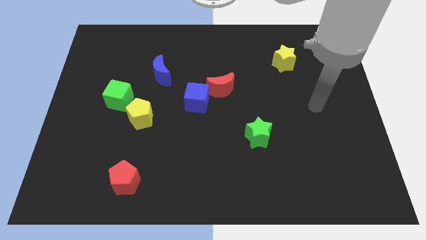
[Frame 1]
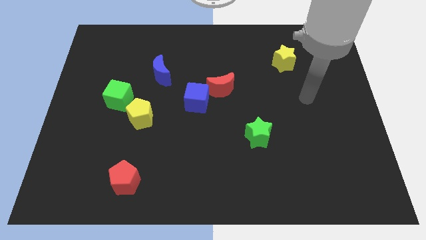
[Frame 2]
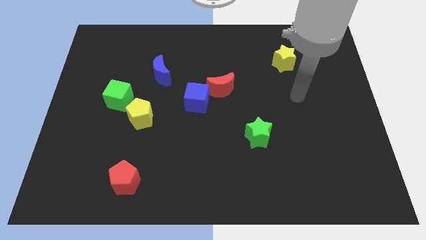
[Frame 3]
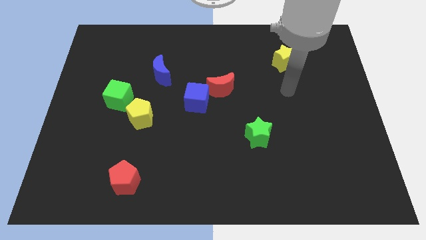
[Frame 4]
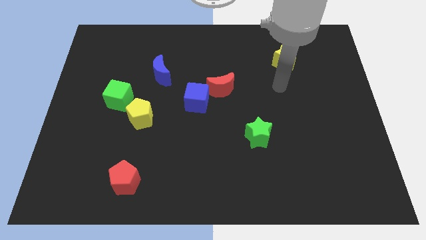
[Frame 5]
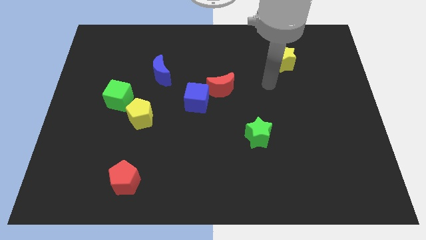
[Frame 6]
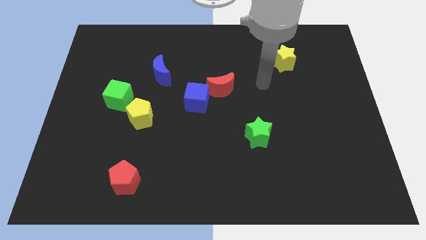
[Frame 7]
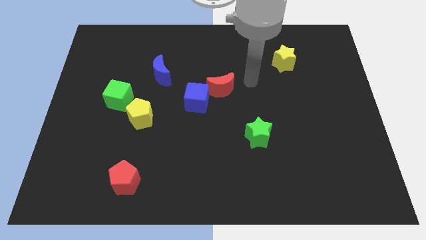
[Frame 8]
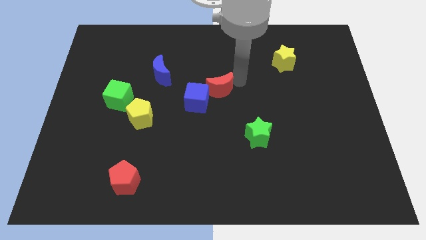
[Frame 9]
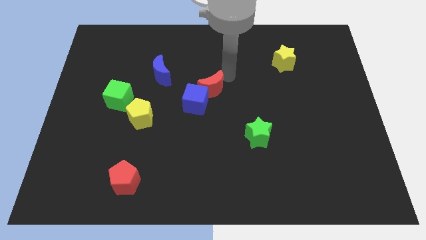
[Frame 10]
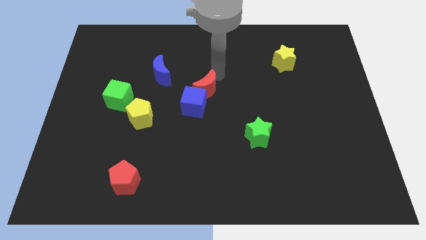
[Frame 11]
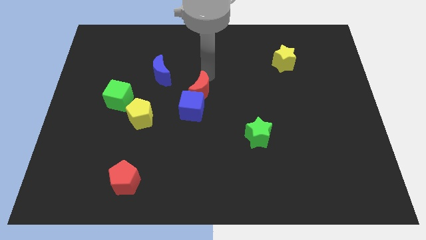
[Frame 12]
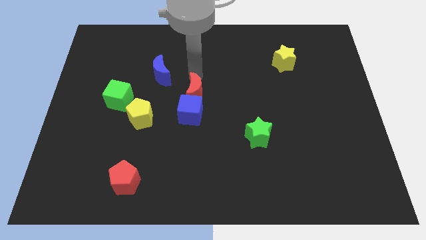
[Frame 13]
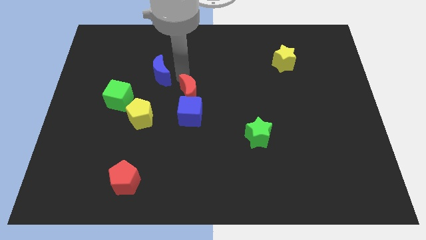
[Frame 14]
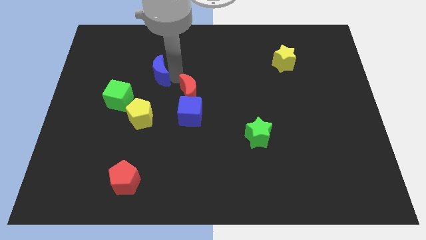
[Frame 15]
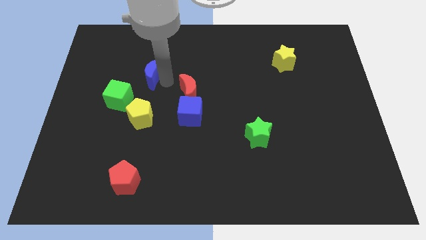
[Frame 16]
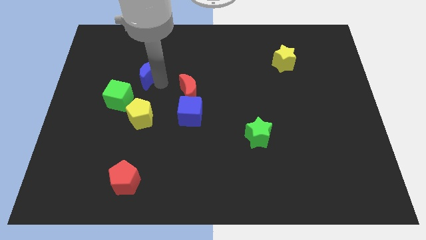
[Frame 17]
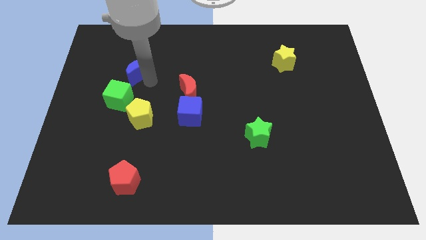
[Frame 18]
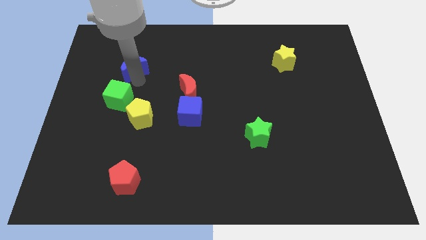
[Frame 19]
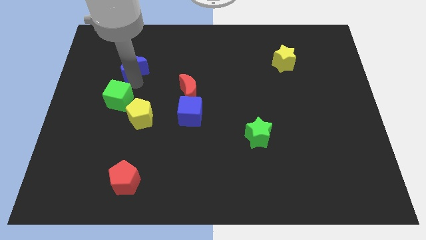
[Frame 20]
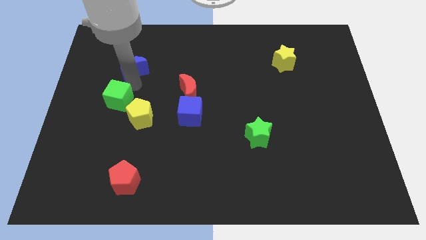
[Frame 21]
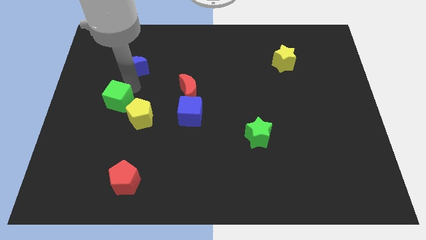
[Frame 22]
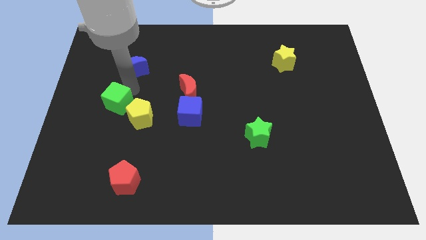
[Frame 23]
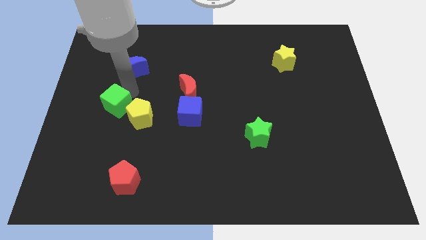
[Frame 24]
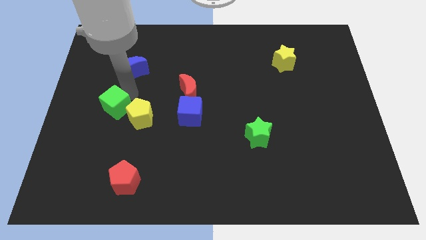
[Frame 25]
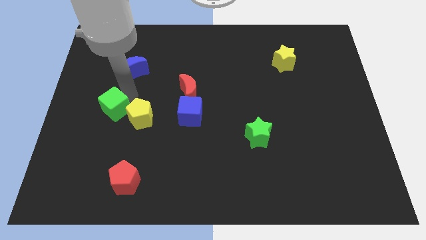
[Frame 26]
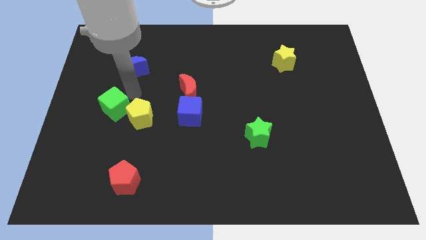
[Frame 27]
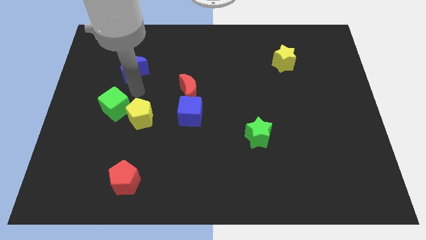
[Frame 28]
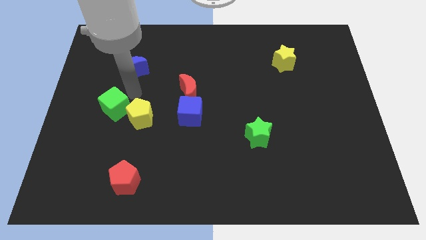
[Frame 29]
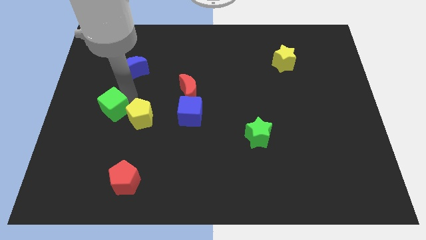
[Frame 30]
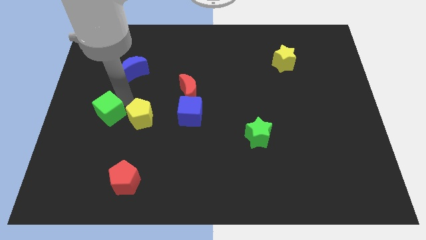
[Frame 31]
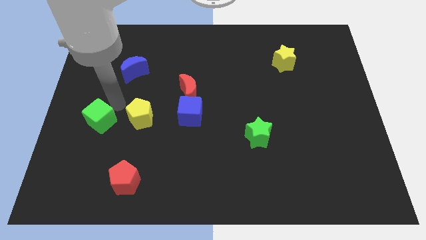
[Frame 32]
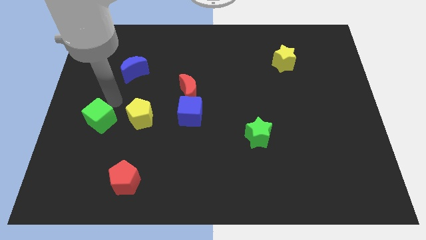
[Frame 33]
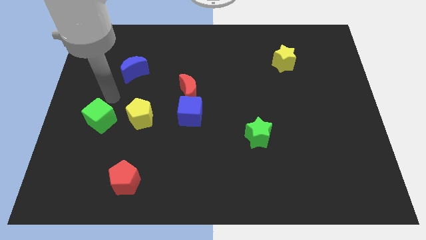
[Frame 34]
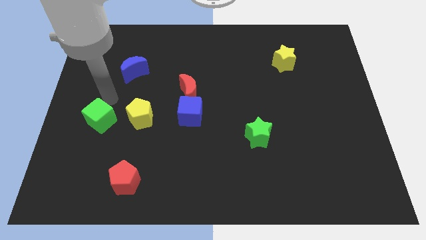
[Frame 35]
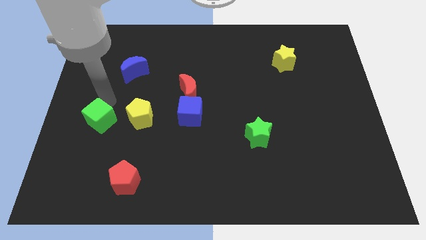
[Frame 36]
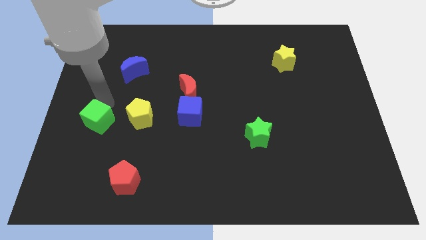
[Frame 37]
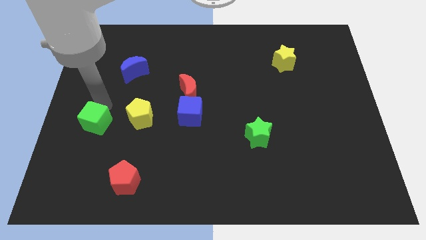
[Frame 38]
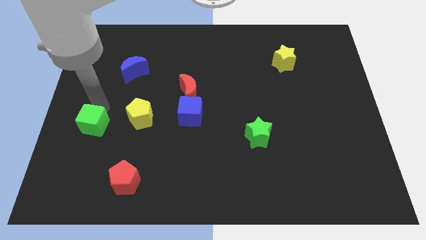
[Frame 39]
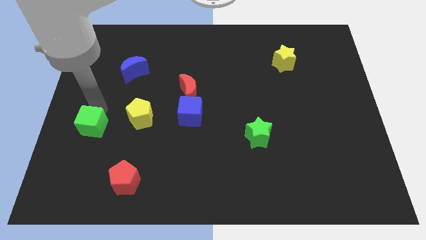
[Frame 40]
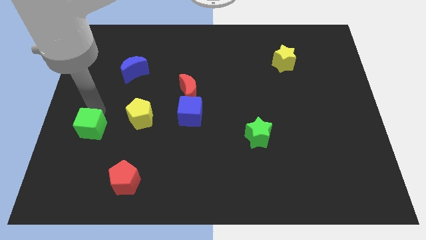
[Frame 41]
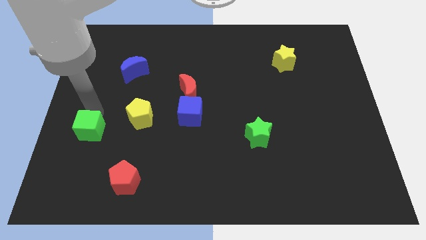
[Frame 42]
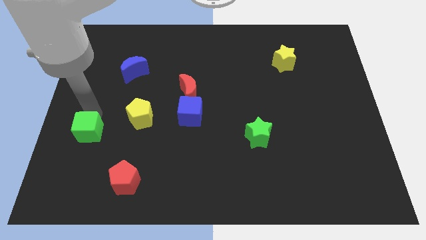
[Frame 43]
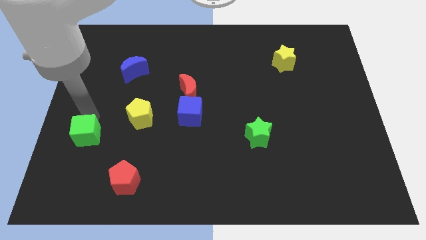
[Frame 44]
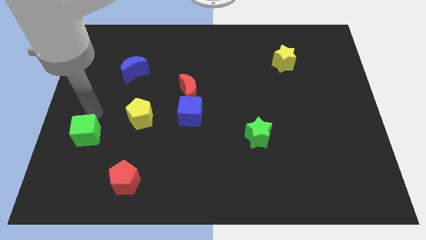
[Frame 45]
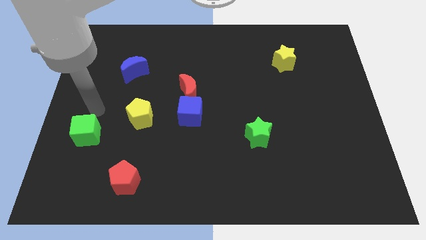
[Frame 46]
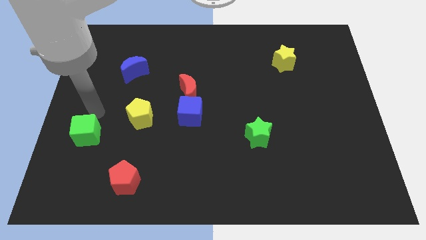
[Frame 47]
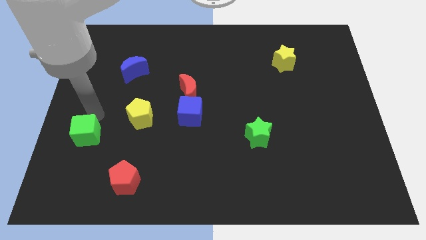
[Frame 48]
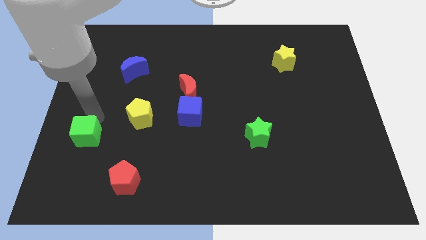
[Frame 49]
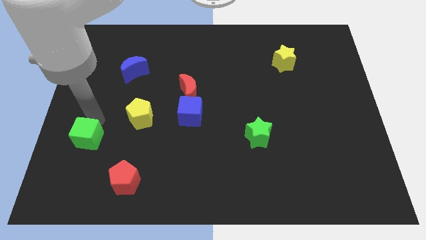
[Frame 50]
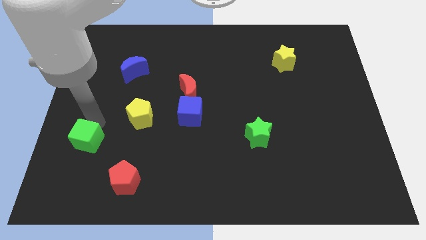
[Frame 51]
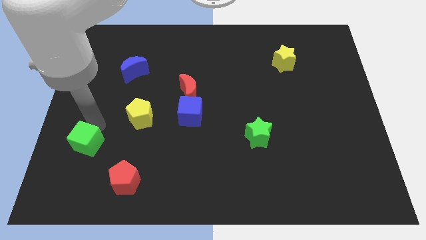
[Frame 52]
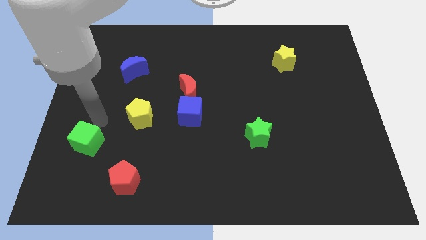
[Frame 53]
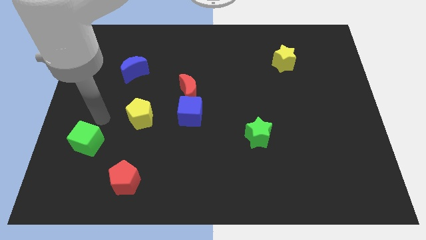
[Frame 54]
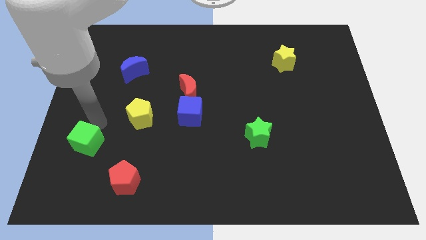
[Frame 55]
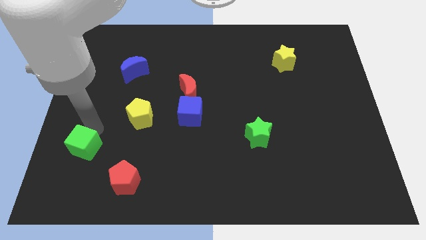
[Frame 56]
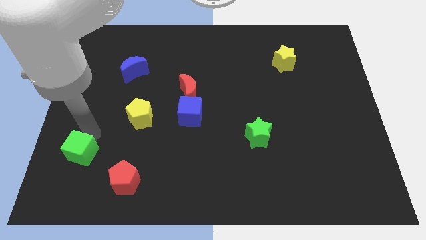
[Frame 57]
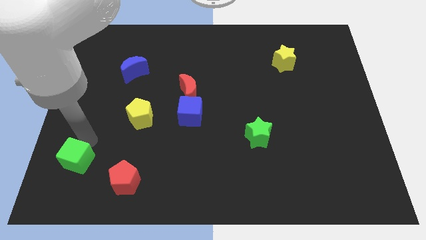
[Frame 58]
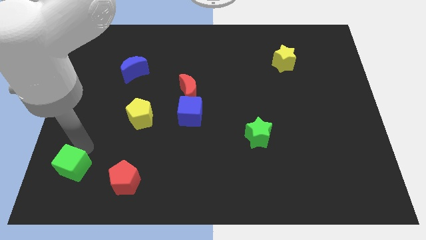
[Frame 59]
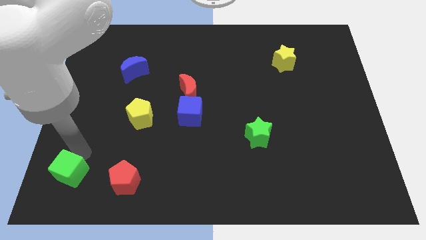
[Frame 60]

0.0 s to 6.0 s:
slide the green cube to the bottom left

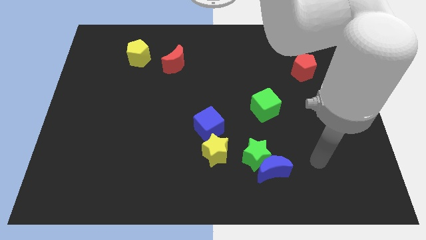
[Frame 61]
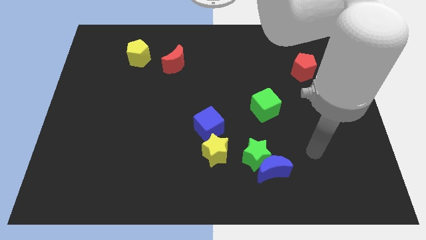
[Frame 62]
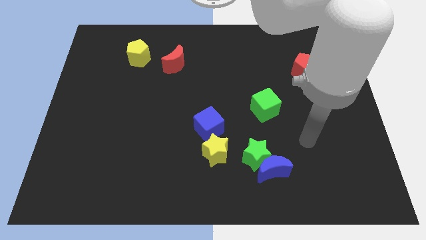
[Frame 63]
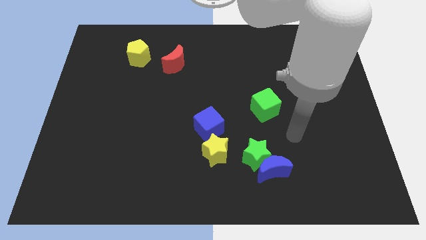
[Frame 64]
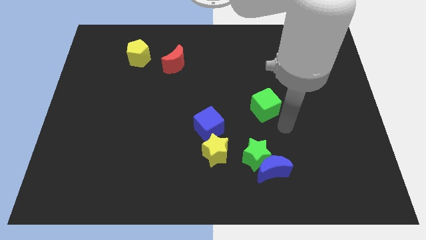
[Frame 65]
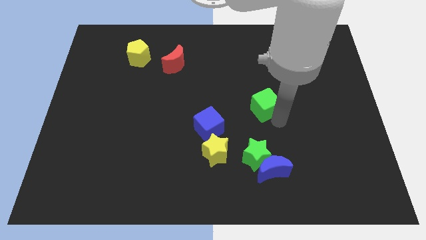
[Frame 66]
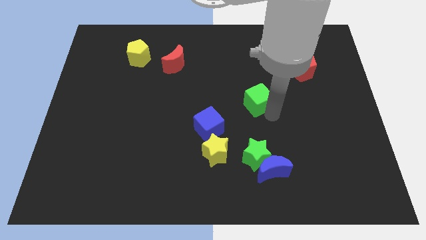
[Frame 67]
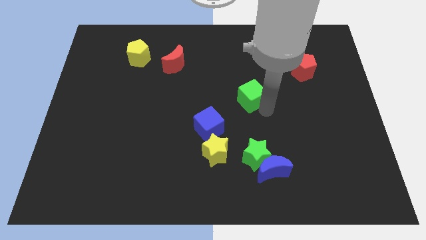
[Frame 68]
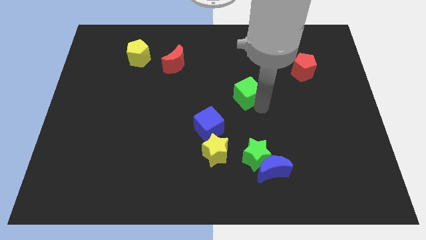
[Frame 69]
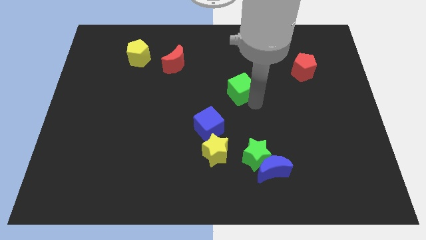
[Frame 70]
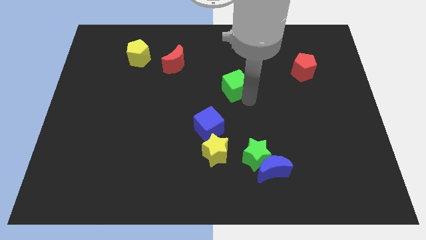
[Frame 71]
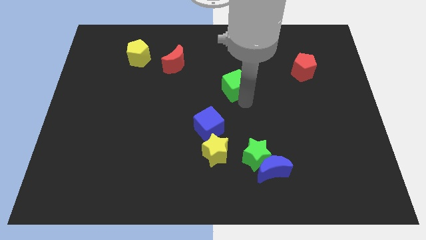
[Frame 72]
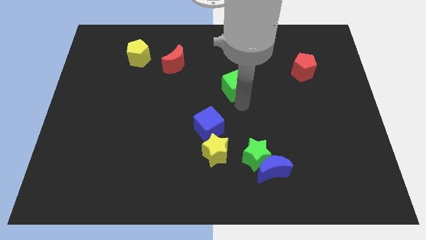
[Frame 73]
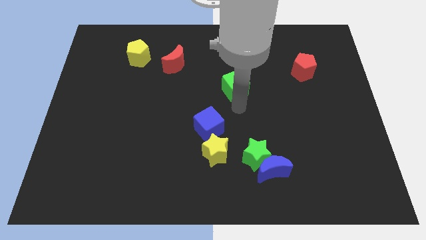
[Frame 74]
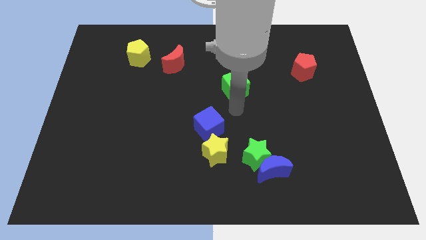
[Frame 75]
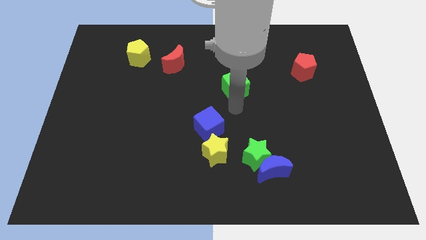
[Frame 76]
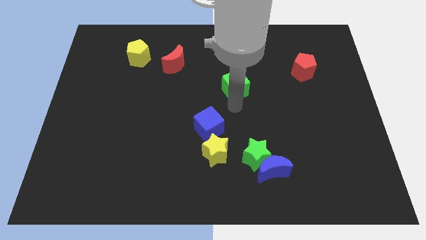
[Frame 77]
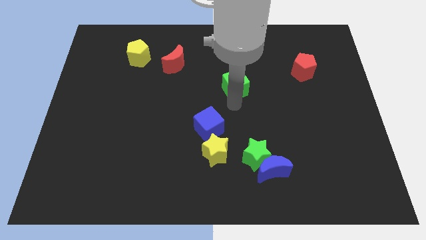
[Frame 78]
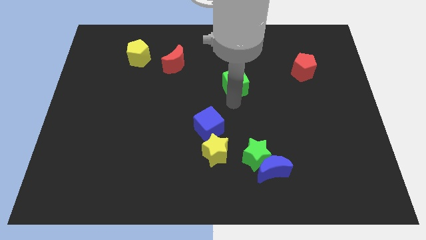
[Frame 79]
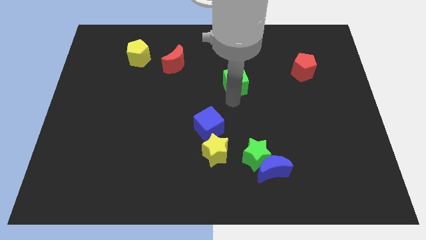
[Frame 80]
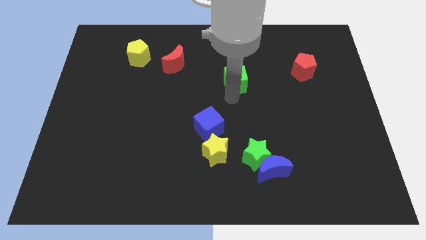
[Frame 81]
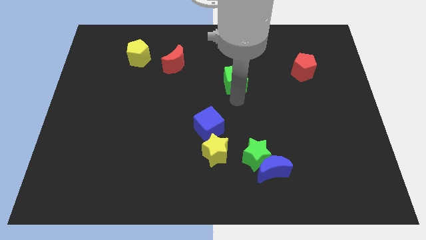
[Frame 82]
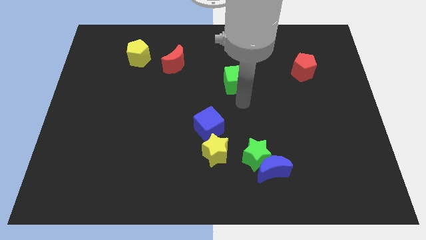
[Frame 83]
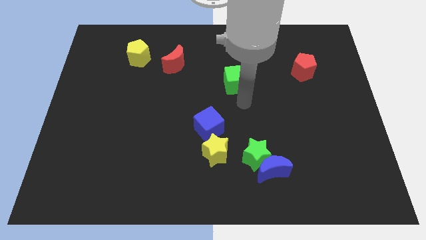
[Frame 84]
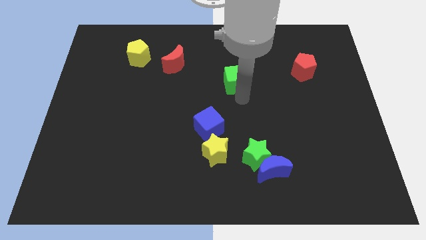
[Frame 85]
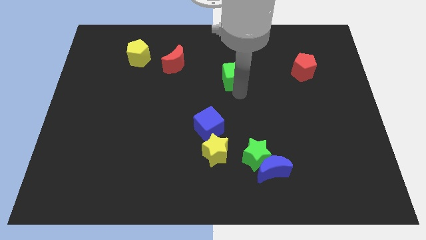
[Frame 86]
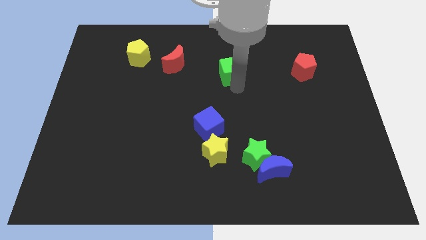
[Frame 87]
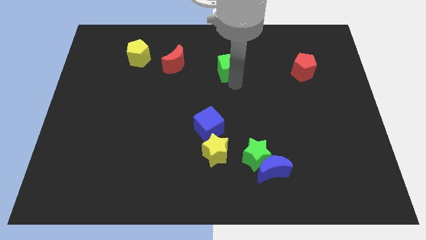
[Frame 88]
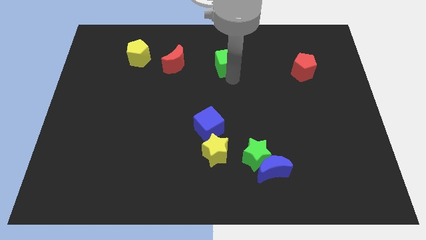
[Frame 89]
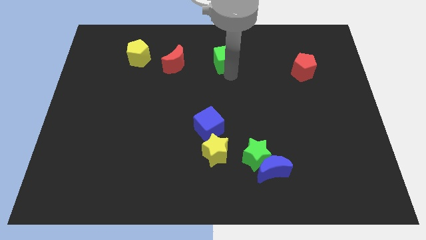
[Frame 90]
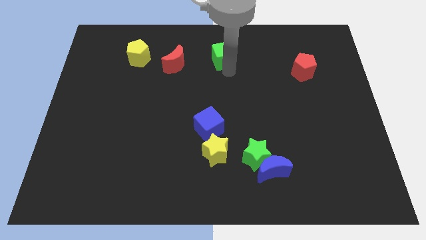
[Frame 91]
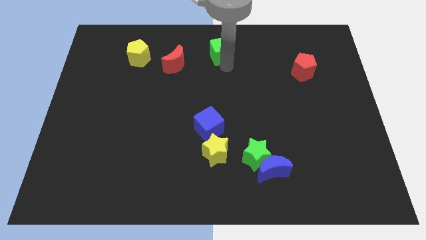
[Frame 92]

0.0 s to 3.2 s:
move the green cube to the top
